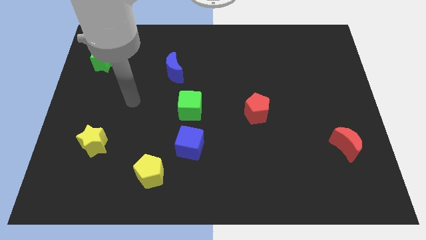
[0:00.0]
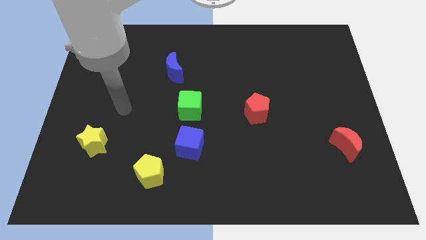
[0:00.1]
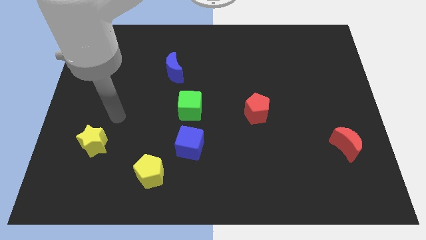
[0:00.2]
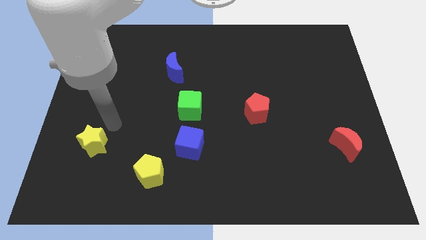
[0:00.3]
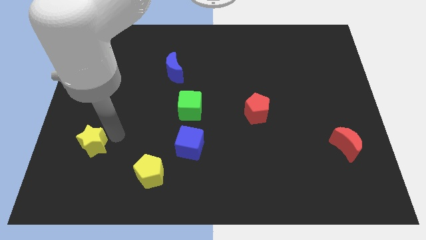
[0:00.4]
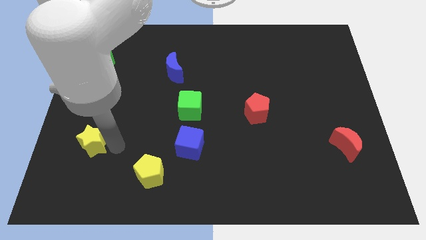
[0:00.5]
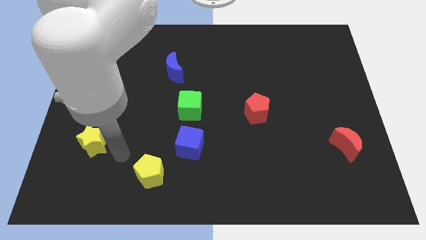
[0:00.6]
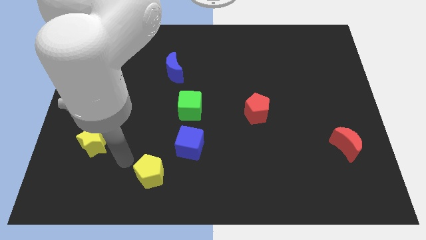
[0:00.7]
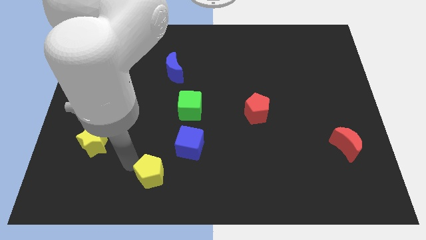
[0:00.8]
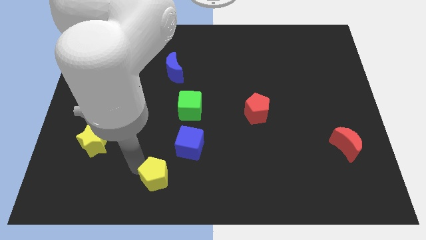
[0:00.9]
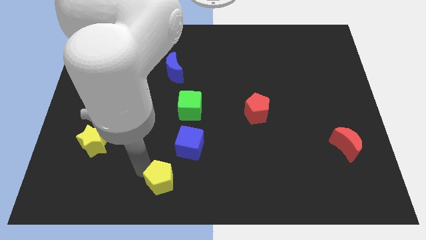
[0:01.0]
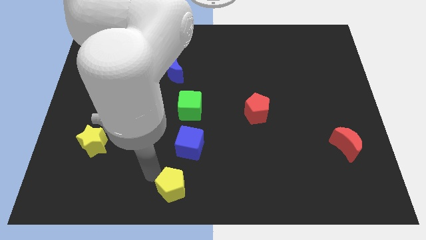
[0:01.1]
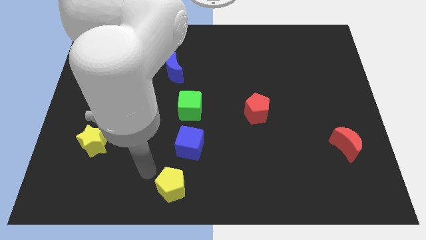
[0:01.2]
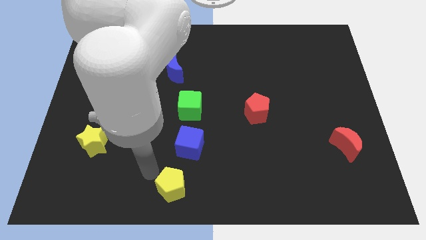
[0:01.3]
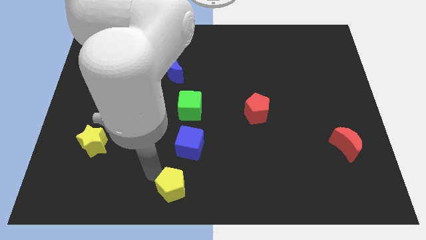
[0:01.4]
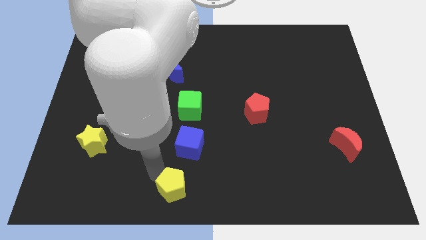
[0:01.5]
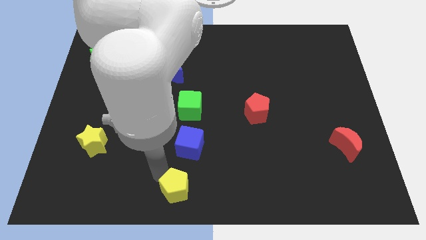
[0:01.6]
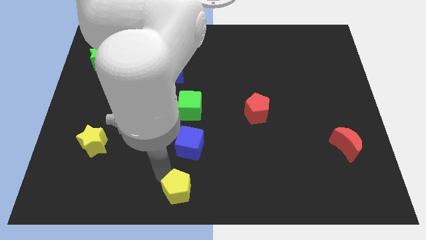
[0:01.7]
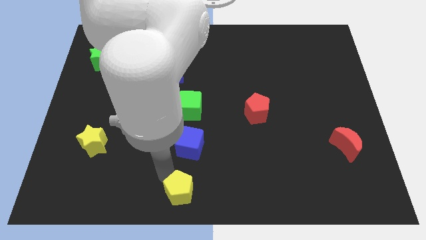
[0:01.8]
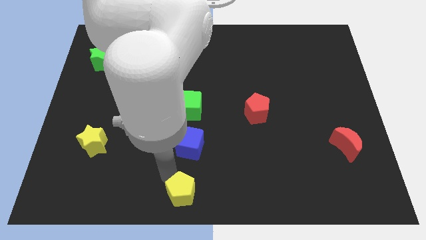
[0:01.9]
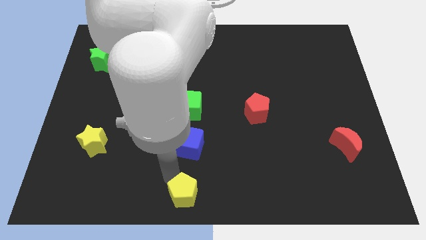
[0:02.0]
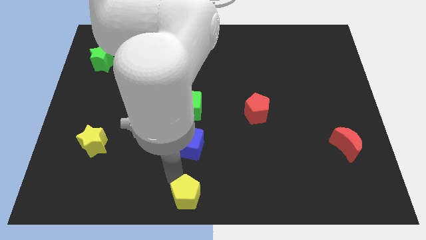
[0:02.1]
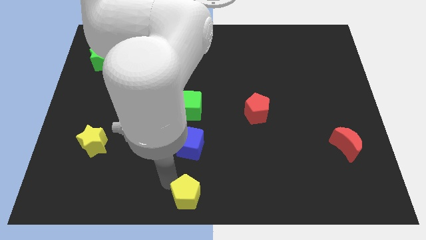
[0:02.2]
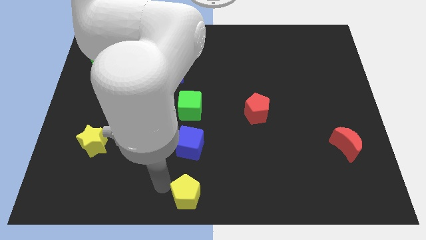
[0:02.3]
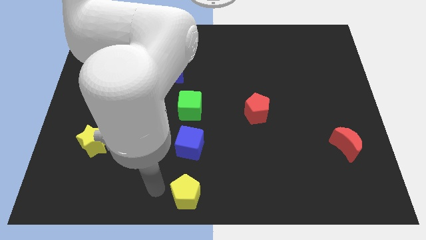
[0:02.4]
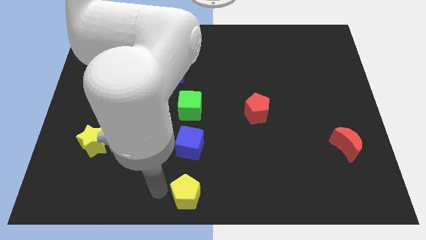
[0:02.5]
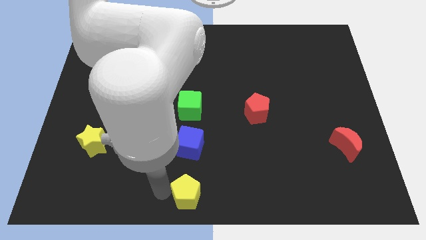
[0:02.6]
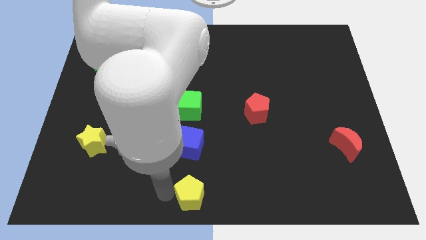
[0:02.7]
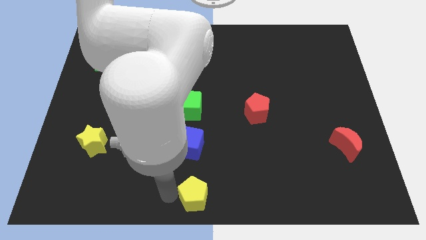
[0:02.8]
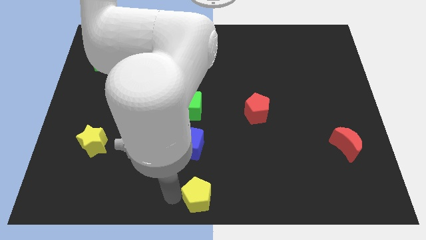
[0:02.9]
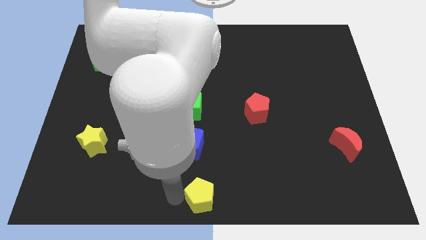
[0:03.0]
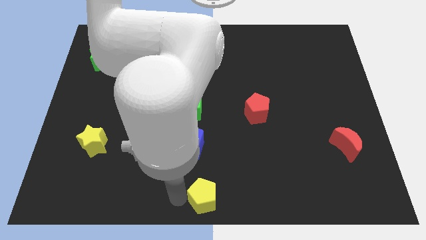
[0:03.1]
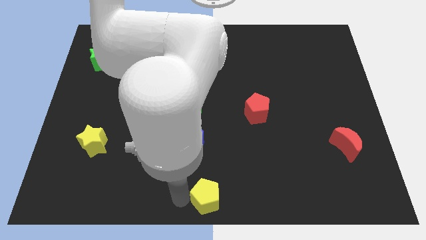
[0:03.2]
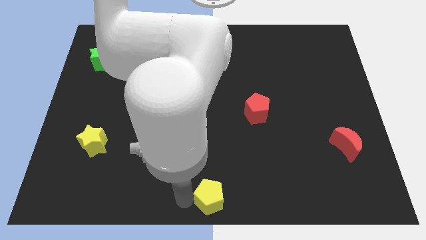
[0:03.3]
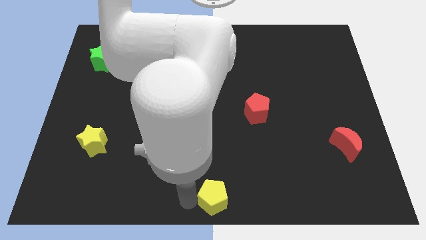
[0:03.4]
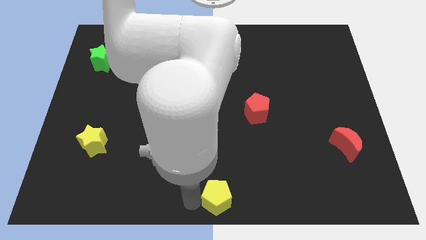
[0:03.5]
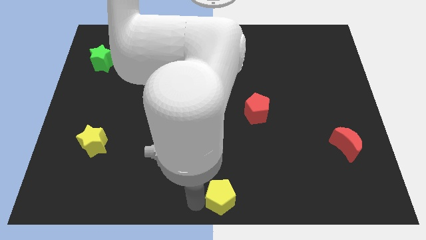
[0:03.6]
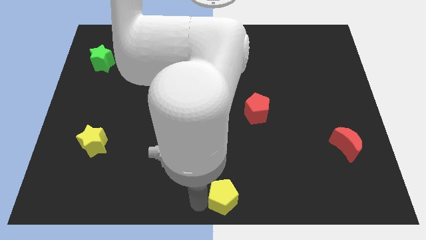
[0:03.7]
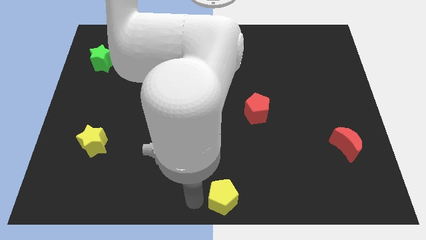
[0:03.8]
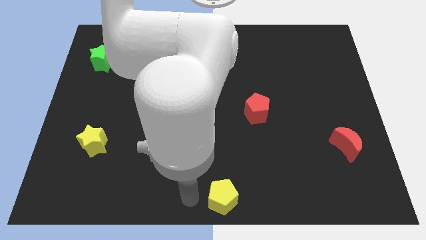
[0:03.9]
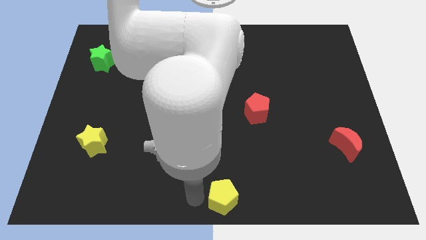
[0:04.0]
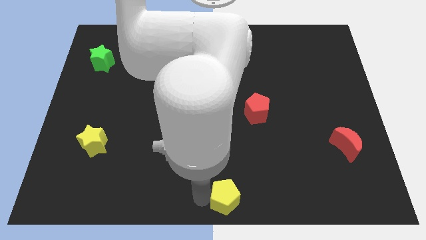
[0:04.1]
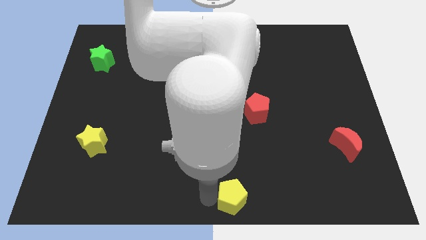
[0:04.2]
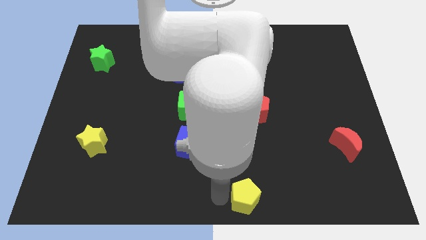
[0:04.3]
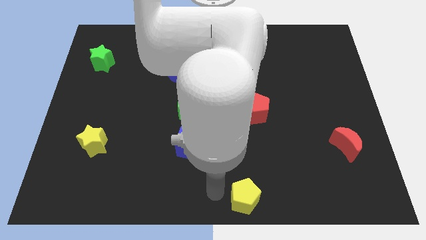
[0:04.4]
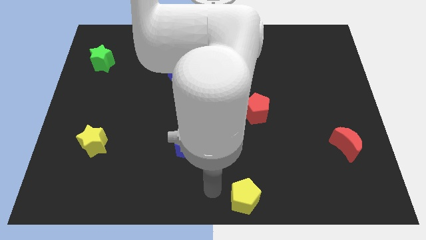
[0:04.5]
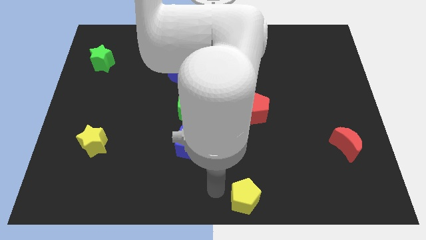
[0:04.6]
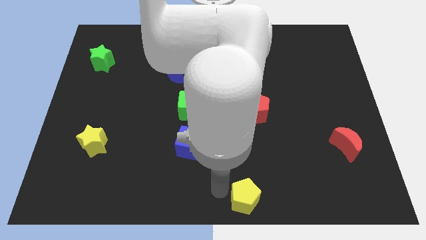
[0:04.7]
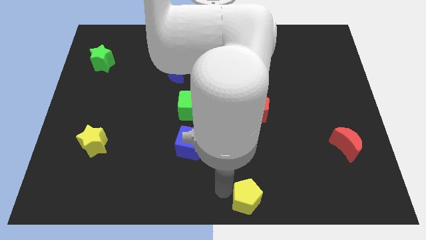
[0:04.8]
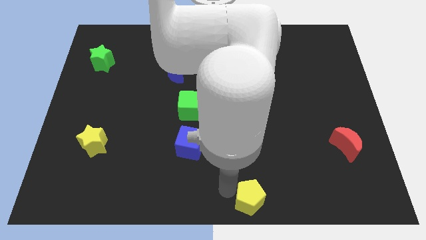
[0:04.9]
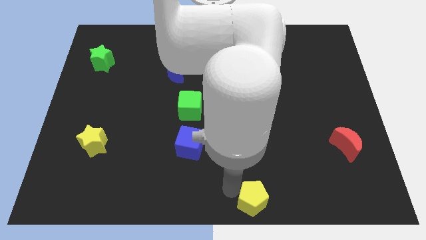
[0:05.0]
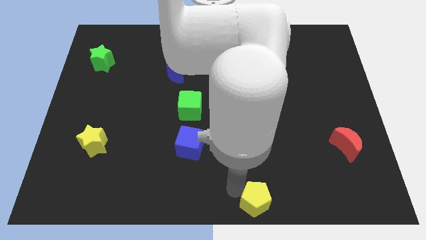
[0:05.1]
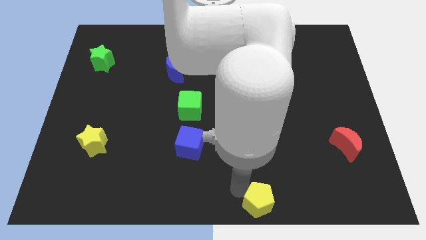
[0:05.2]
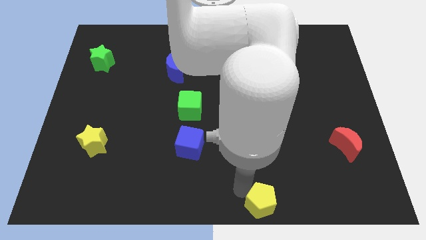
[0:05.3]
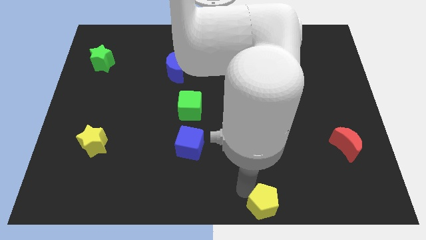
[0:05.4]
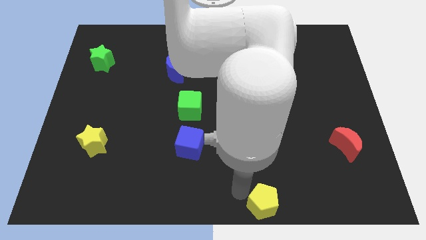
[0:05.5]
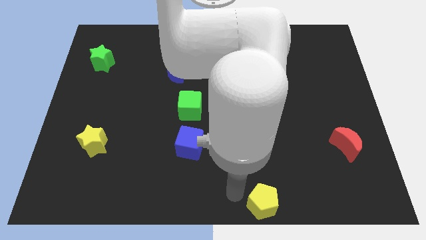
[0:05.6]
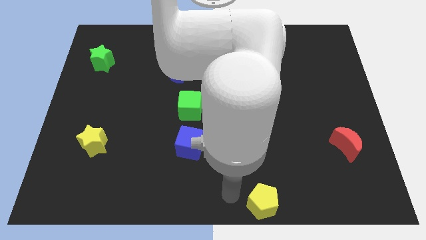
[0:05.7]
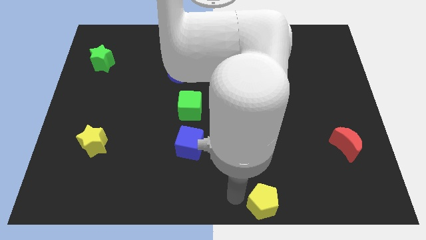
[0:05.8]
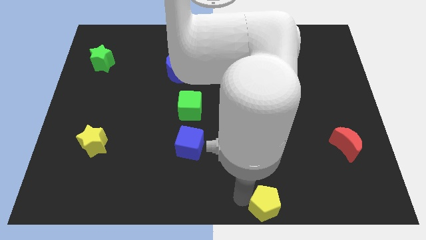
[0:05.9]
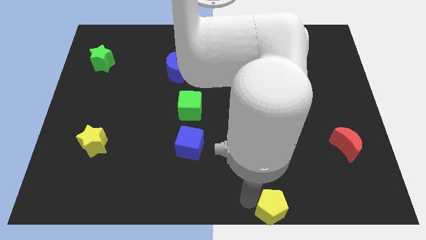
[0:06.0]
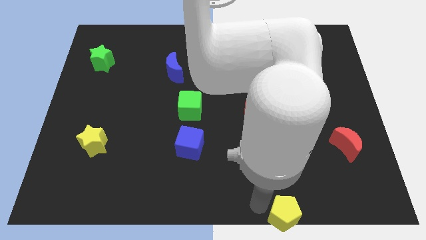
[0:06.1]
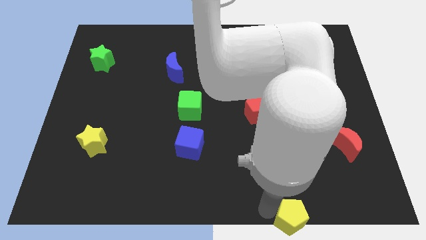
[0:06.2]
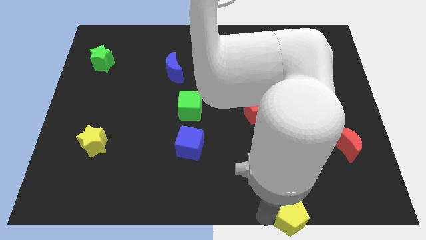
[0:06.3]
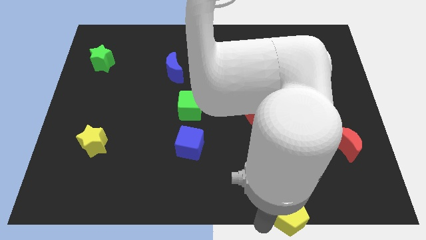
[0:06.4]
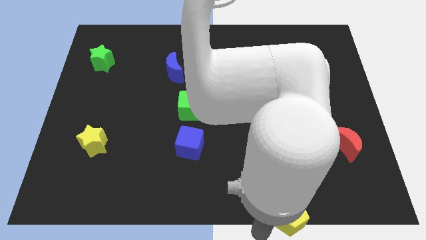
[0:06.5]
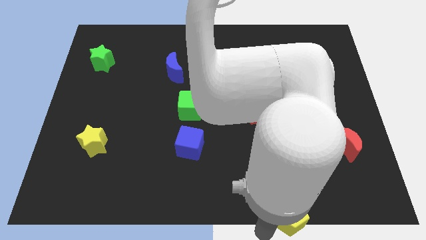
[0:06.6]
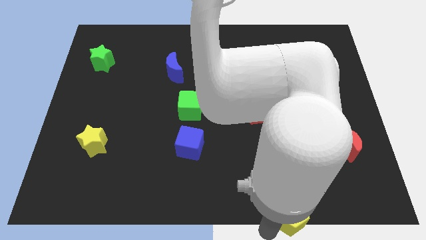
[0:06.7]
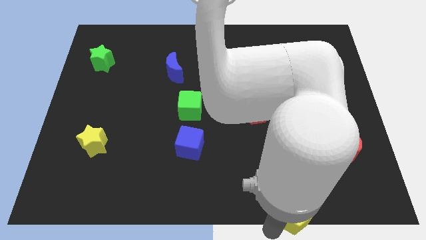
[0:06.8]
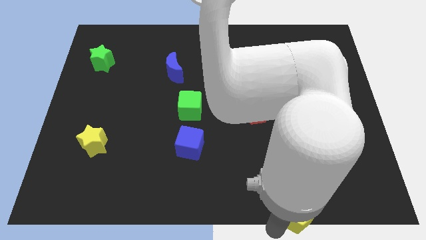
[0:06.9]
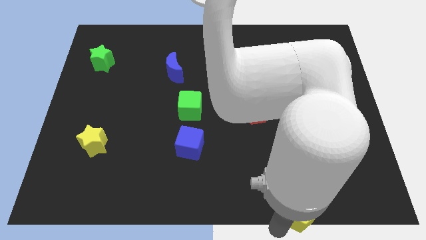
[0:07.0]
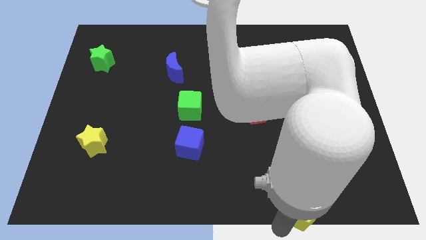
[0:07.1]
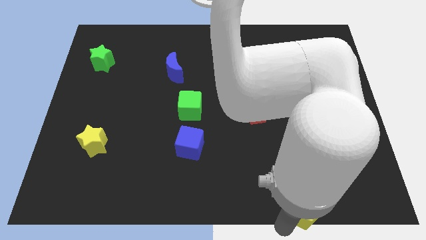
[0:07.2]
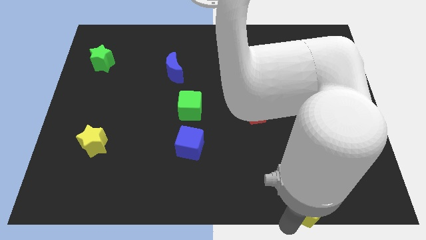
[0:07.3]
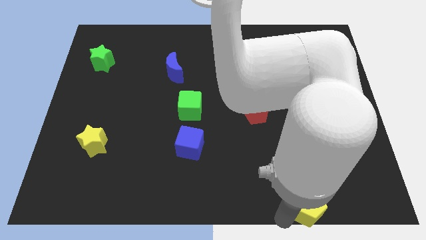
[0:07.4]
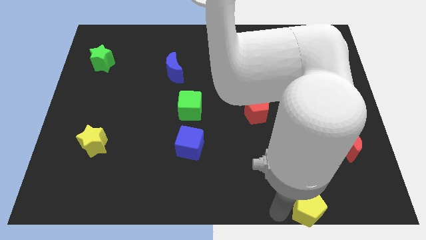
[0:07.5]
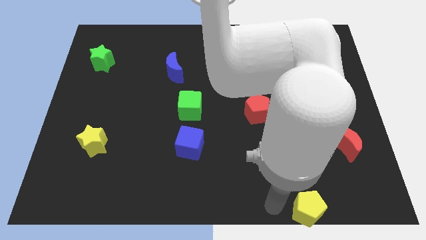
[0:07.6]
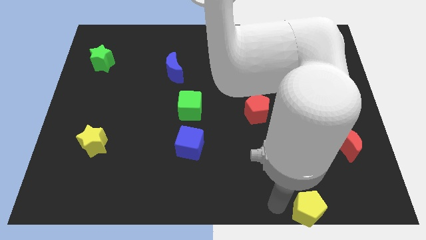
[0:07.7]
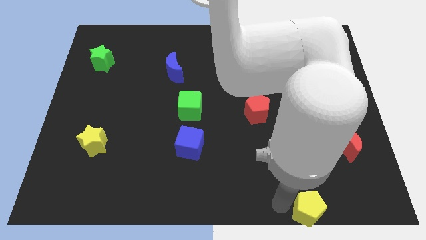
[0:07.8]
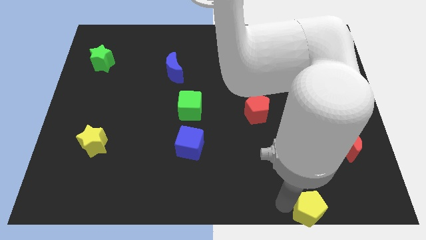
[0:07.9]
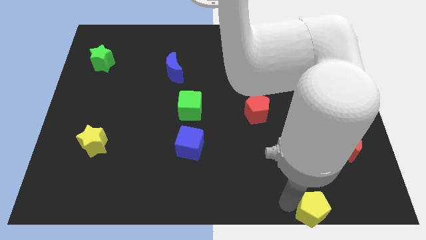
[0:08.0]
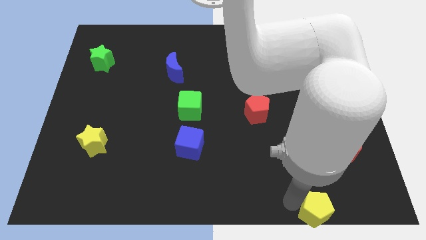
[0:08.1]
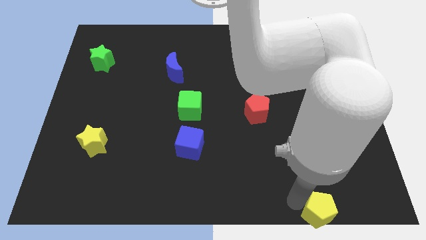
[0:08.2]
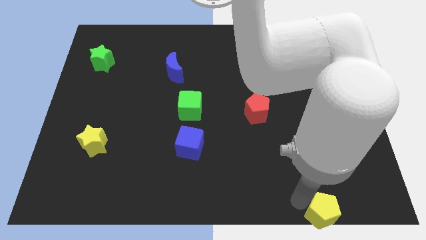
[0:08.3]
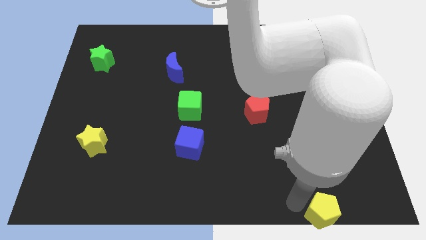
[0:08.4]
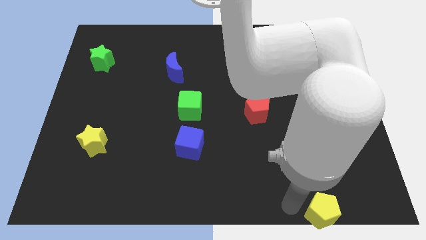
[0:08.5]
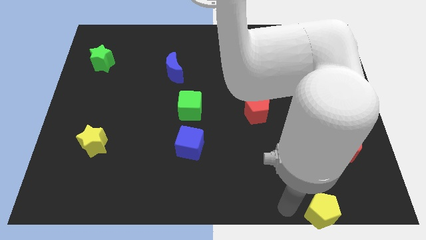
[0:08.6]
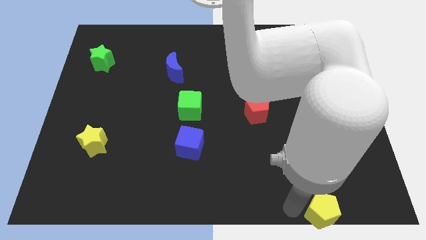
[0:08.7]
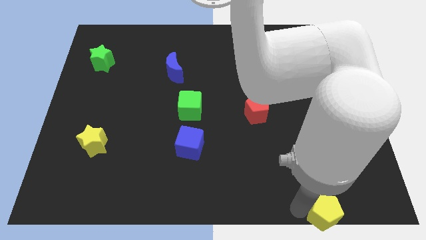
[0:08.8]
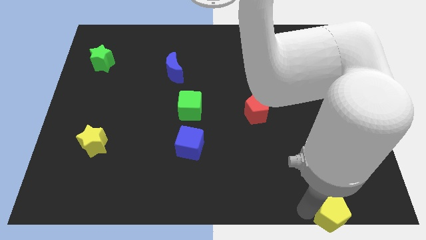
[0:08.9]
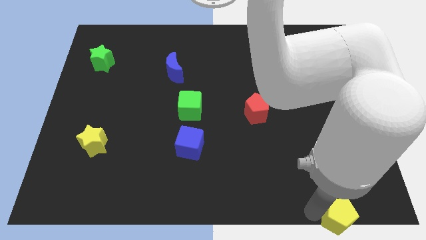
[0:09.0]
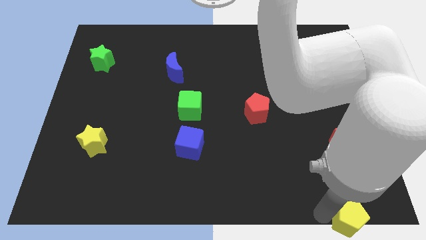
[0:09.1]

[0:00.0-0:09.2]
put the yellow pentagon to the bottom right of the board
